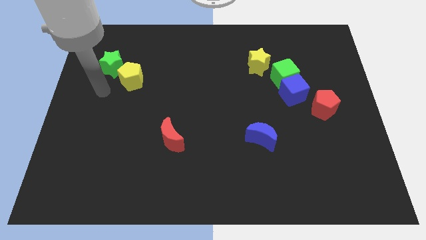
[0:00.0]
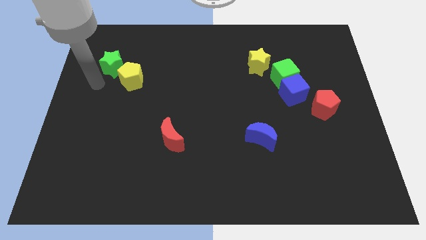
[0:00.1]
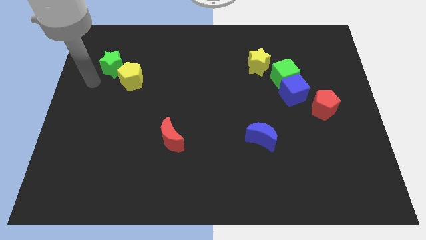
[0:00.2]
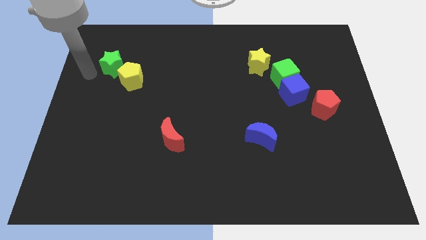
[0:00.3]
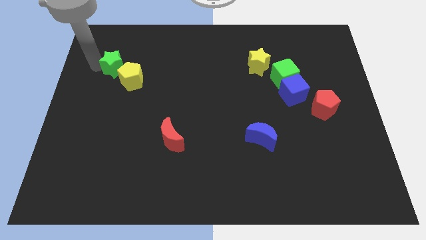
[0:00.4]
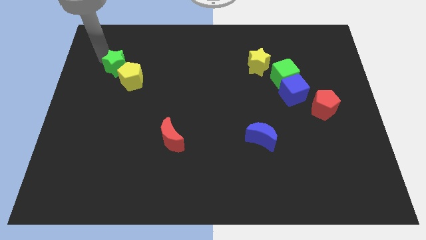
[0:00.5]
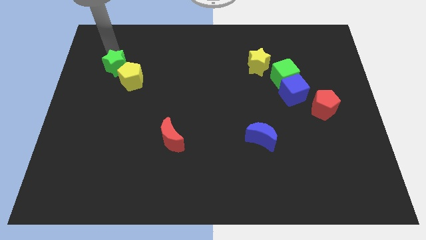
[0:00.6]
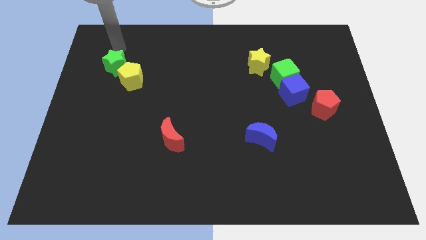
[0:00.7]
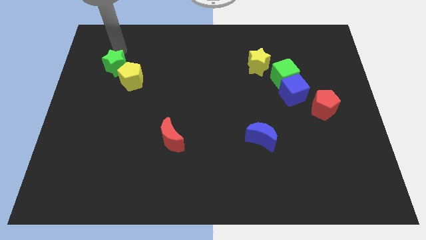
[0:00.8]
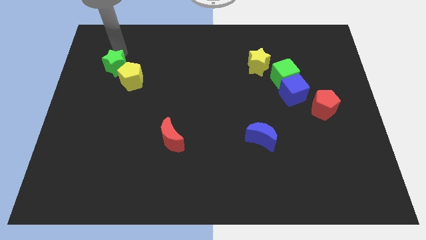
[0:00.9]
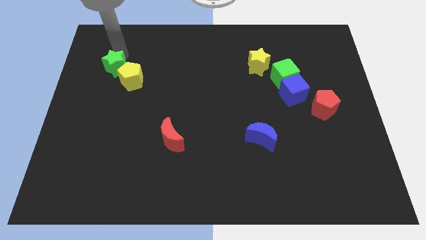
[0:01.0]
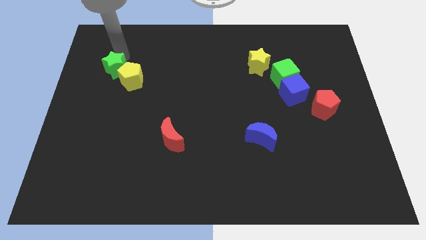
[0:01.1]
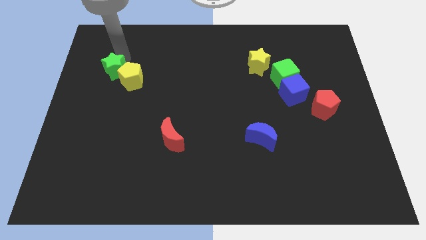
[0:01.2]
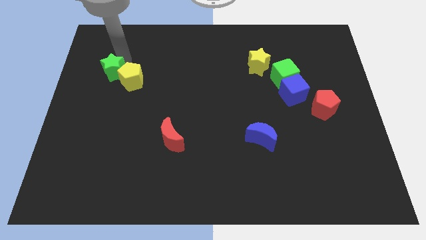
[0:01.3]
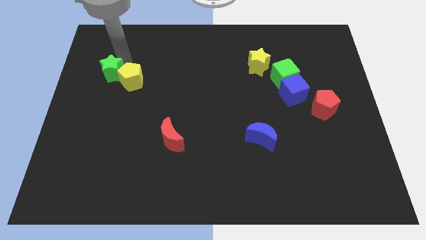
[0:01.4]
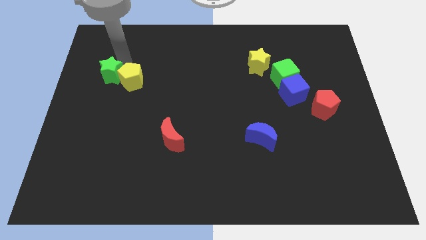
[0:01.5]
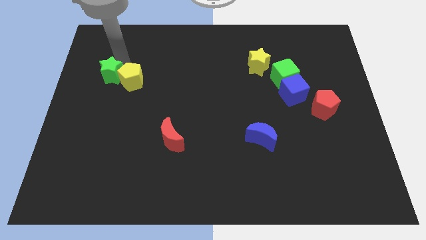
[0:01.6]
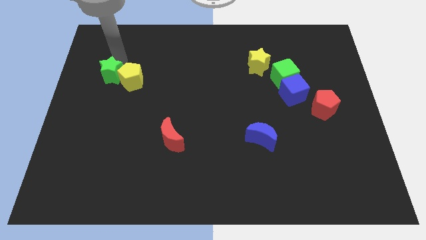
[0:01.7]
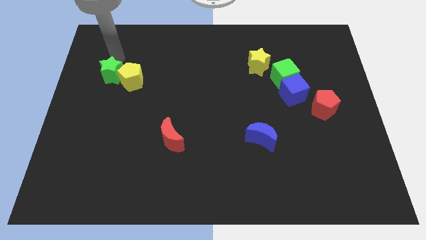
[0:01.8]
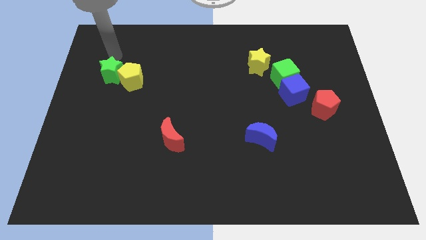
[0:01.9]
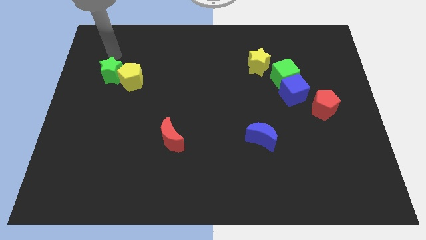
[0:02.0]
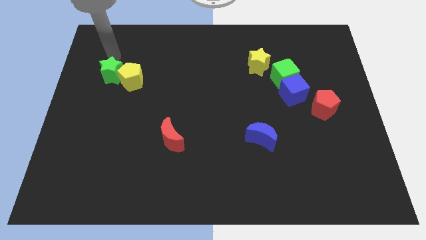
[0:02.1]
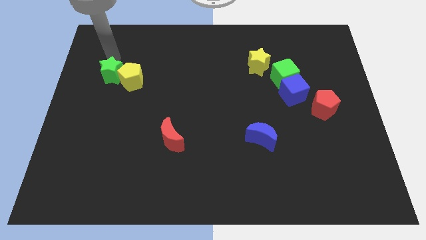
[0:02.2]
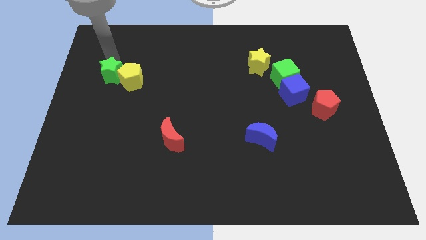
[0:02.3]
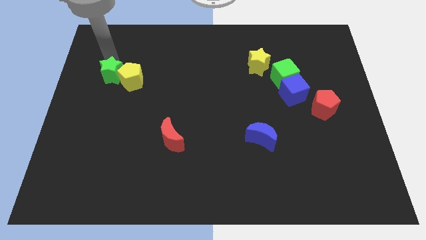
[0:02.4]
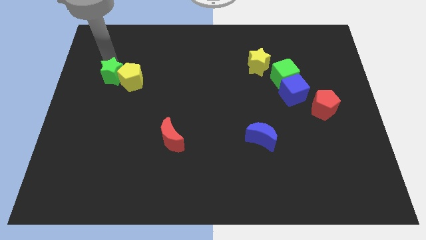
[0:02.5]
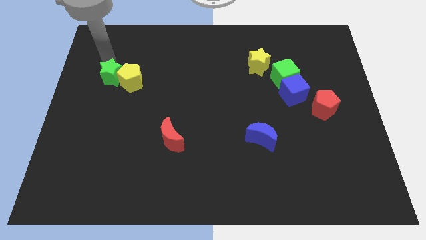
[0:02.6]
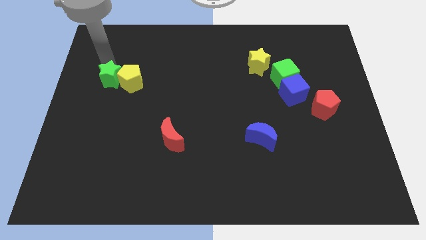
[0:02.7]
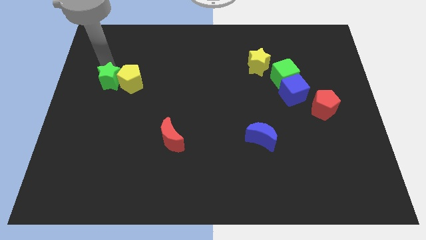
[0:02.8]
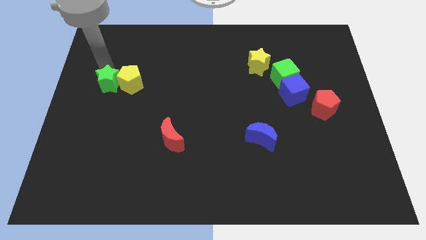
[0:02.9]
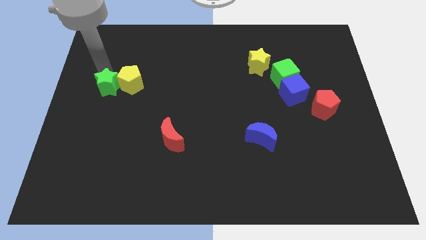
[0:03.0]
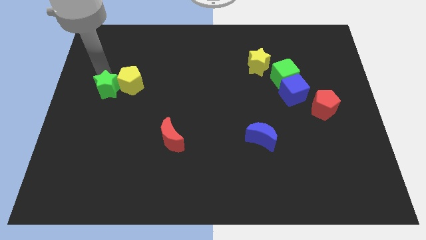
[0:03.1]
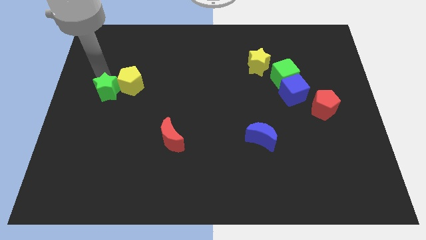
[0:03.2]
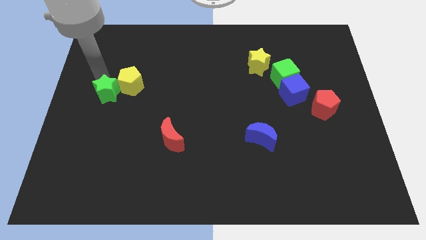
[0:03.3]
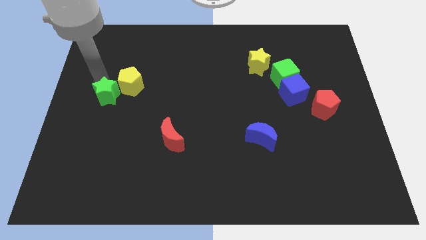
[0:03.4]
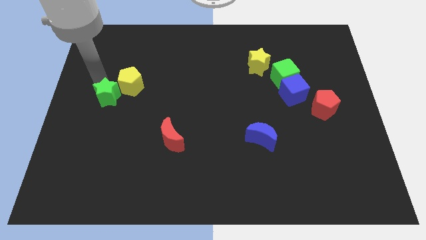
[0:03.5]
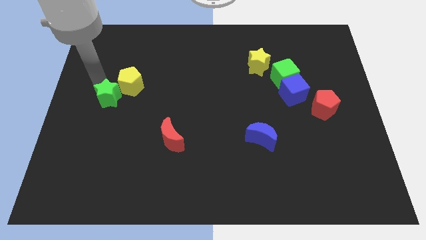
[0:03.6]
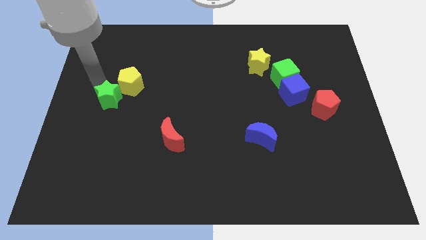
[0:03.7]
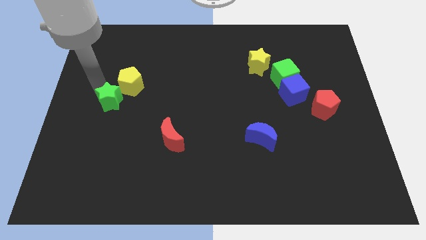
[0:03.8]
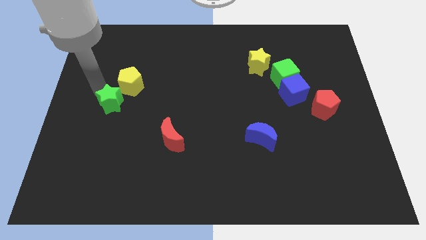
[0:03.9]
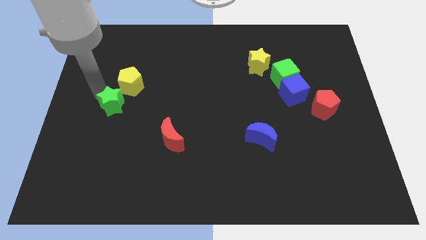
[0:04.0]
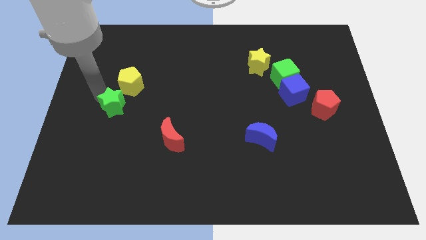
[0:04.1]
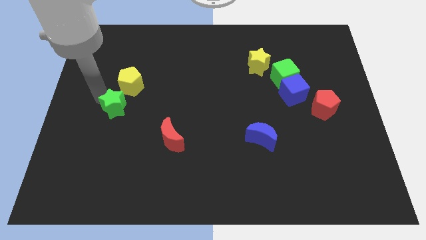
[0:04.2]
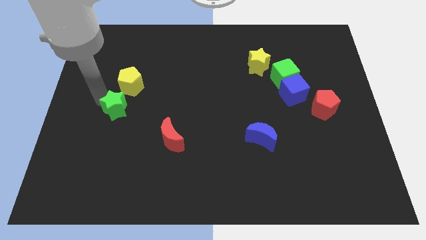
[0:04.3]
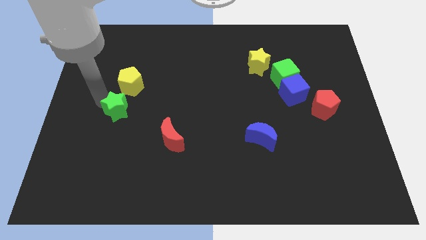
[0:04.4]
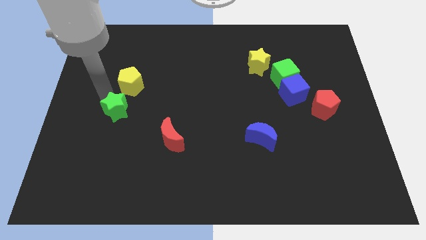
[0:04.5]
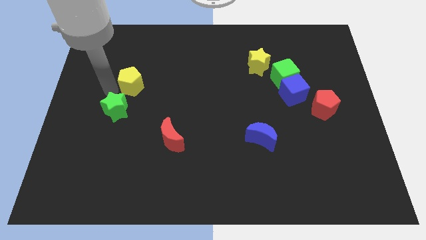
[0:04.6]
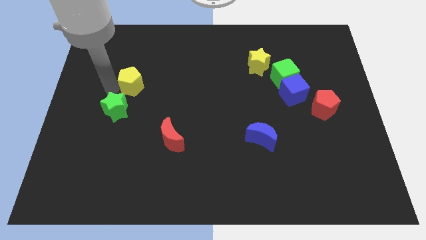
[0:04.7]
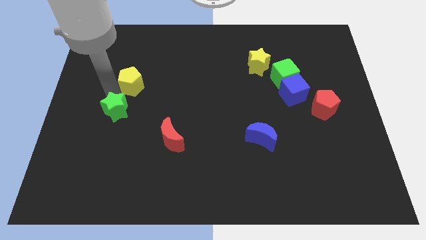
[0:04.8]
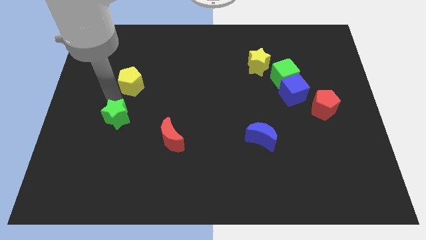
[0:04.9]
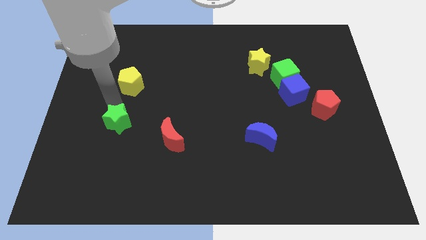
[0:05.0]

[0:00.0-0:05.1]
move the green star left of the red moon

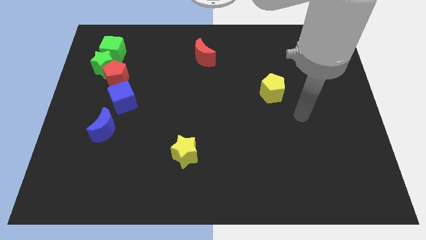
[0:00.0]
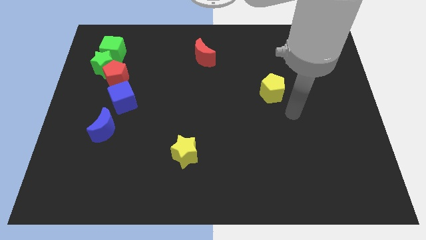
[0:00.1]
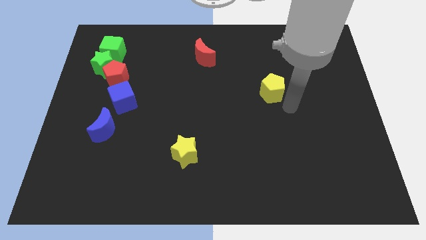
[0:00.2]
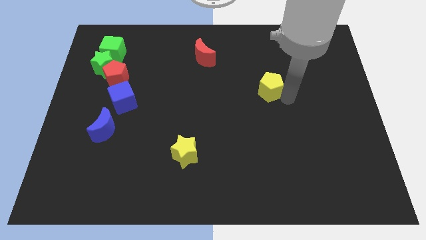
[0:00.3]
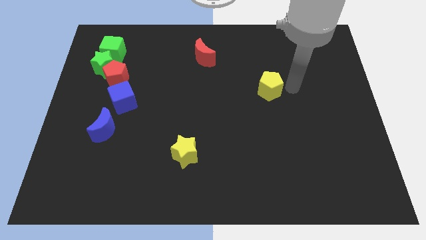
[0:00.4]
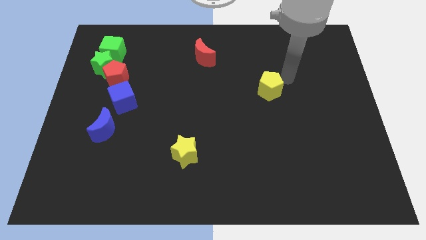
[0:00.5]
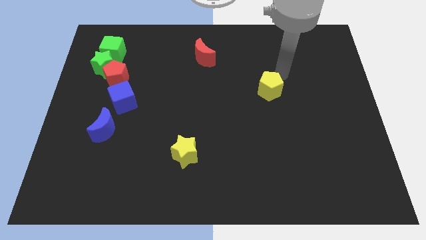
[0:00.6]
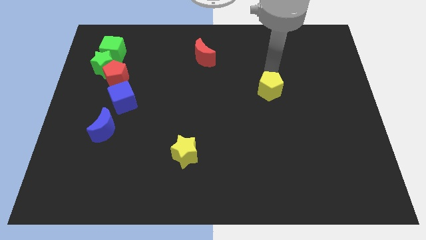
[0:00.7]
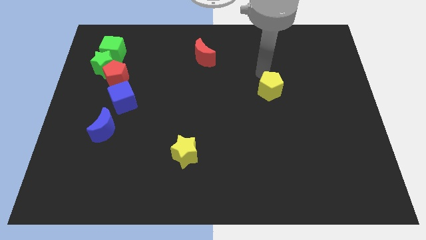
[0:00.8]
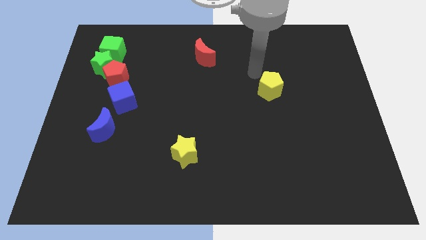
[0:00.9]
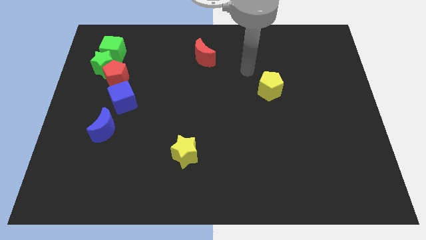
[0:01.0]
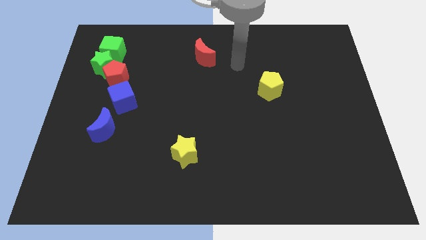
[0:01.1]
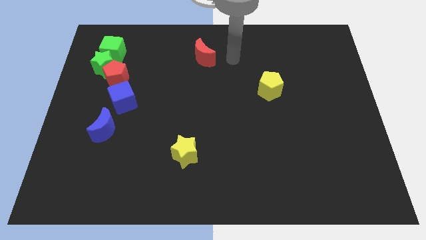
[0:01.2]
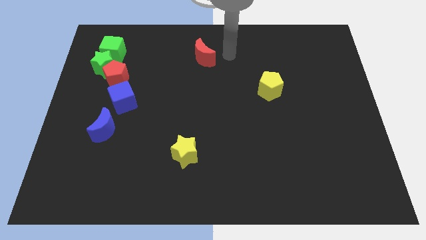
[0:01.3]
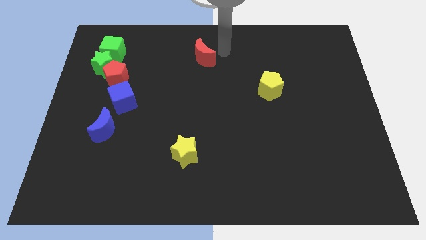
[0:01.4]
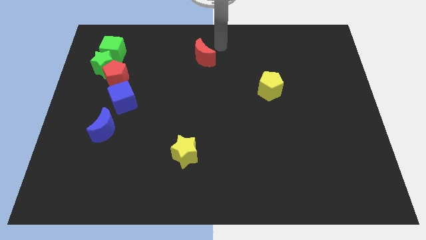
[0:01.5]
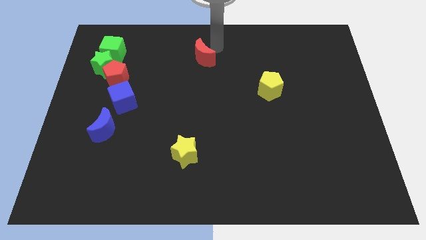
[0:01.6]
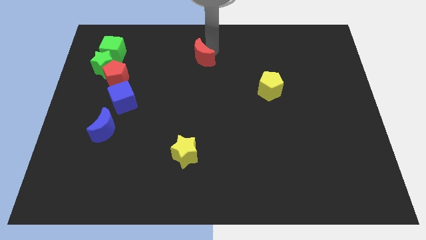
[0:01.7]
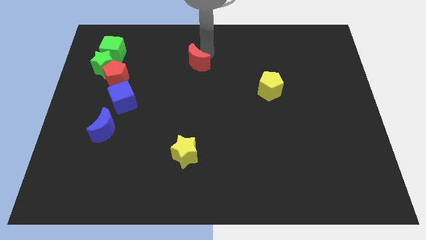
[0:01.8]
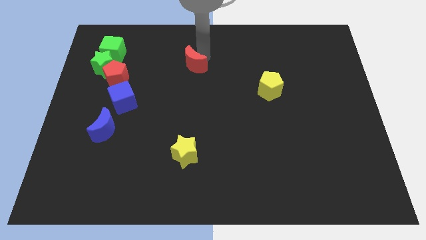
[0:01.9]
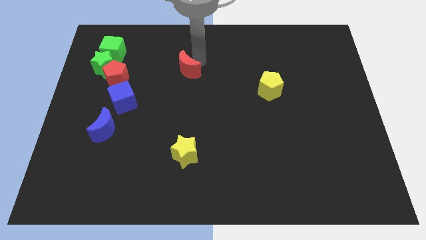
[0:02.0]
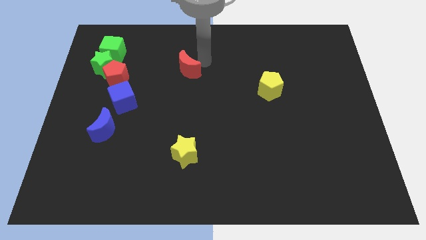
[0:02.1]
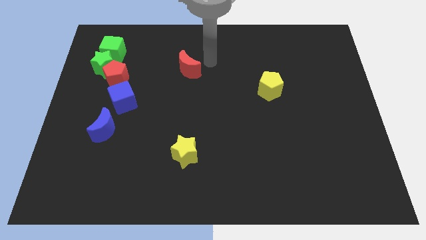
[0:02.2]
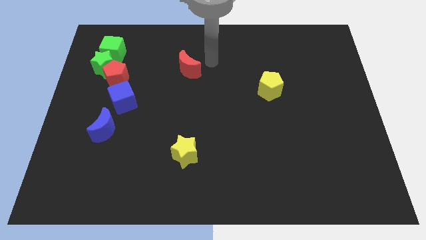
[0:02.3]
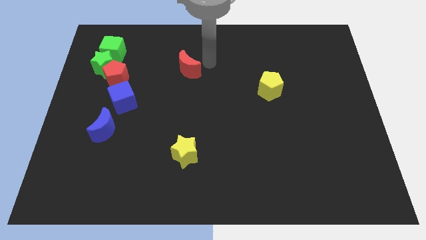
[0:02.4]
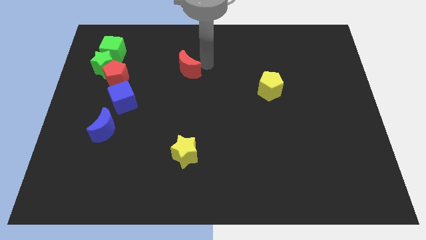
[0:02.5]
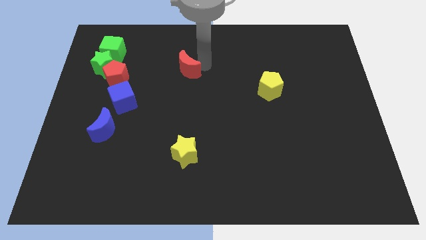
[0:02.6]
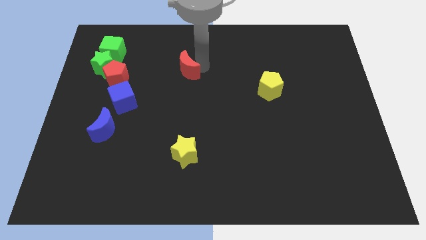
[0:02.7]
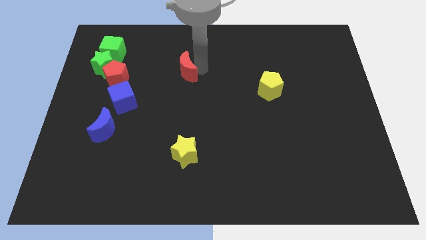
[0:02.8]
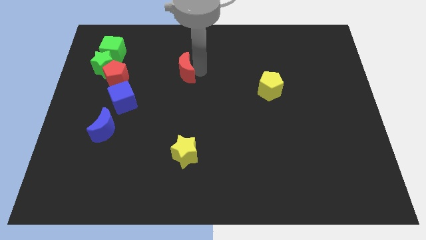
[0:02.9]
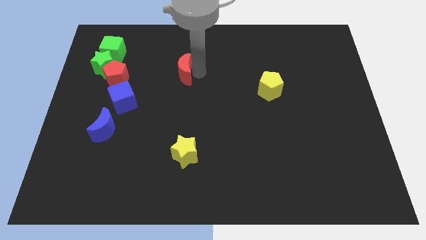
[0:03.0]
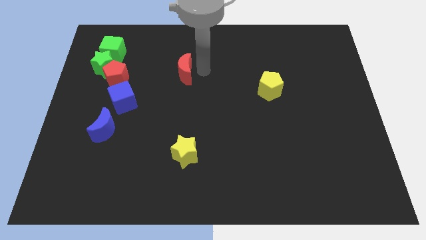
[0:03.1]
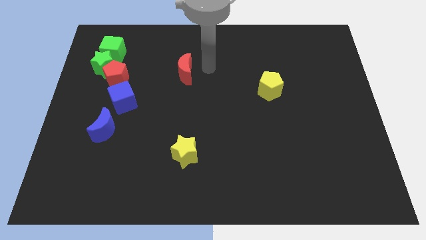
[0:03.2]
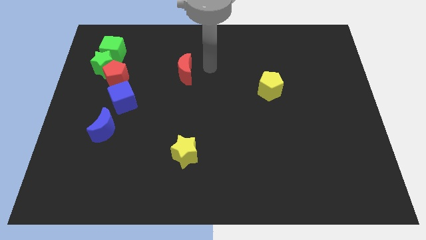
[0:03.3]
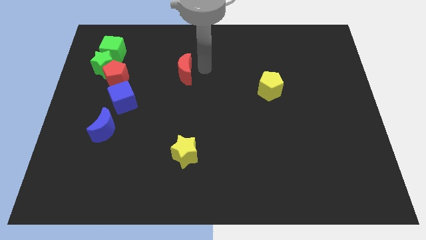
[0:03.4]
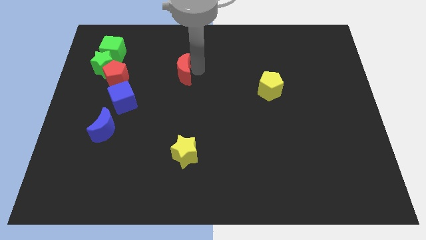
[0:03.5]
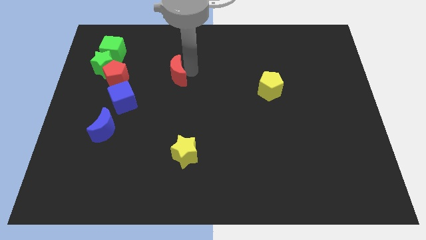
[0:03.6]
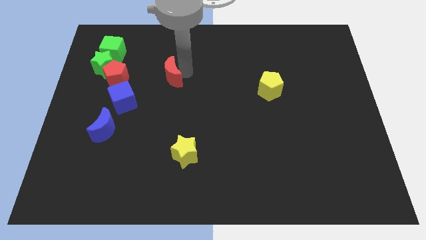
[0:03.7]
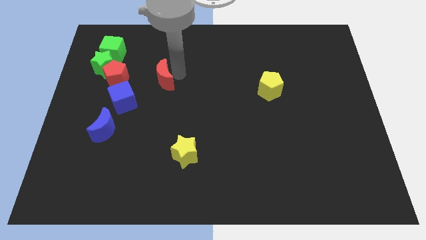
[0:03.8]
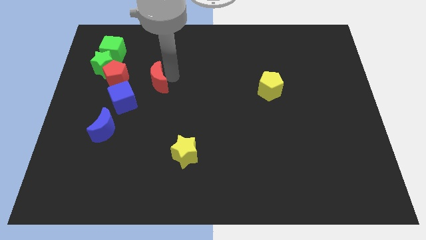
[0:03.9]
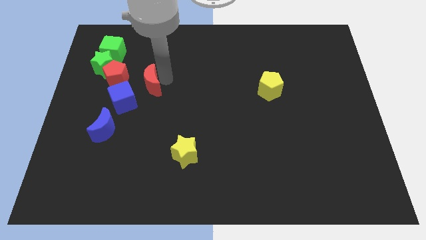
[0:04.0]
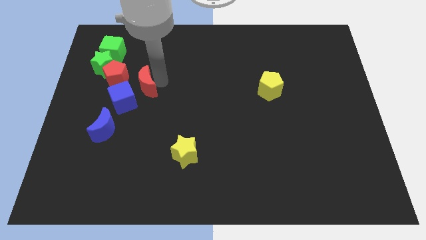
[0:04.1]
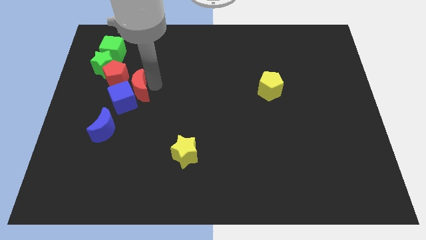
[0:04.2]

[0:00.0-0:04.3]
slide the red moon diagonally down and to the right of the green star
